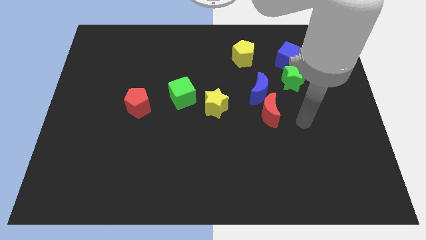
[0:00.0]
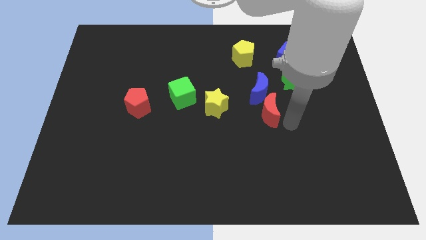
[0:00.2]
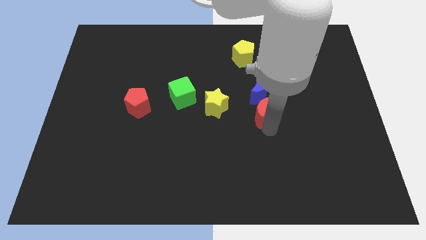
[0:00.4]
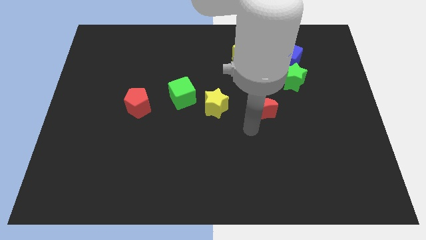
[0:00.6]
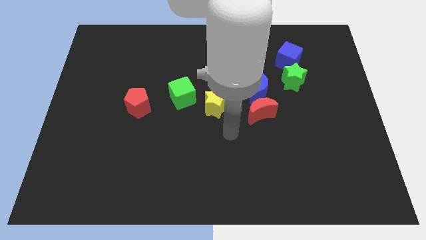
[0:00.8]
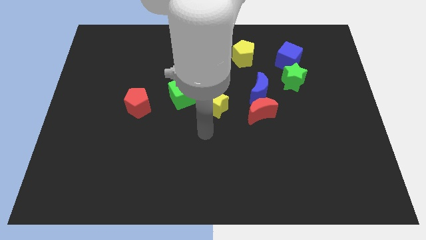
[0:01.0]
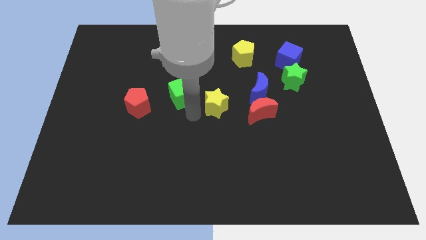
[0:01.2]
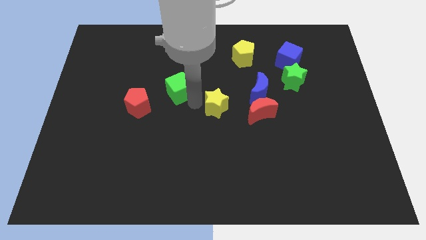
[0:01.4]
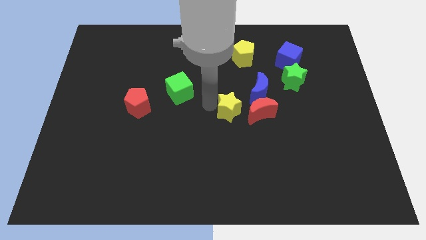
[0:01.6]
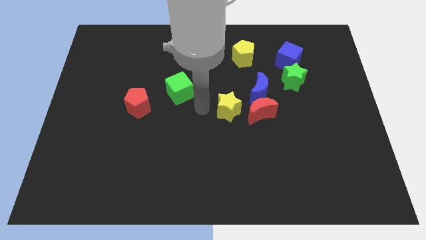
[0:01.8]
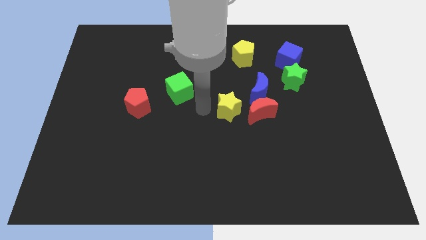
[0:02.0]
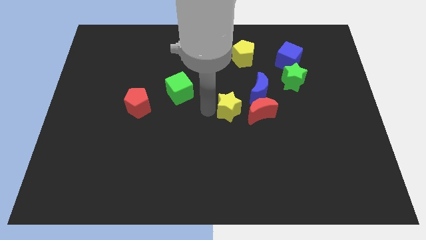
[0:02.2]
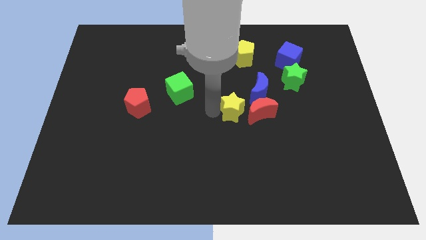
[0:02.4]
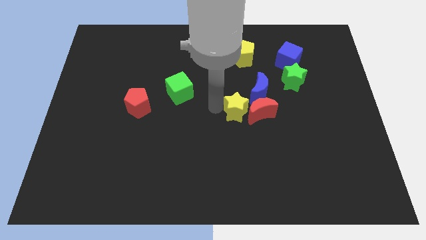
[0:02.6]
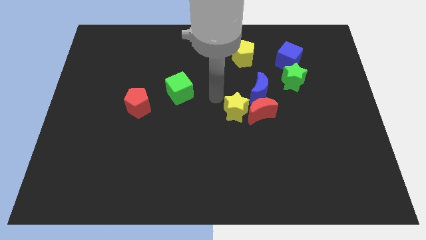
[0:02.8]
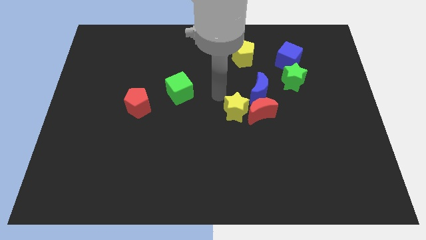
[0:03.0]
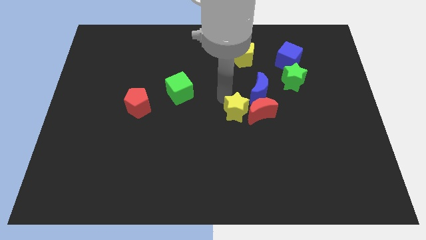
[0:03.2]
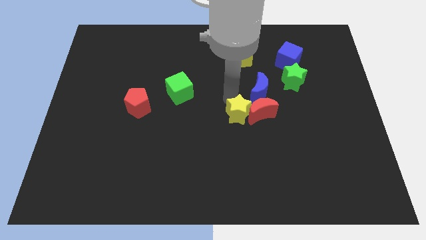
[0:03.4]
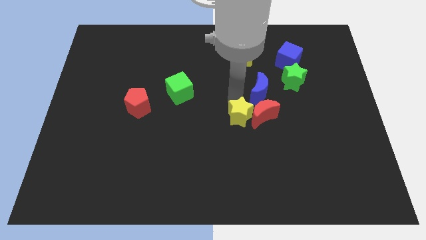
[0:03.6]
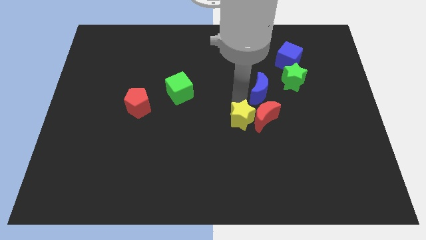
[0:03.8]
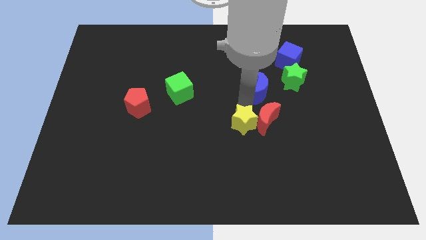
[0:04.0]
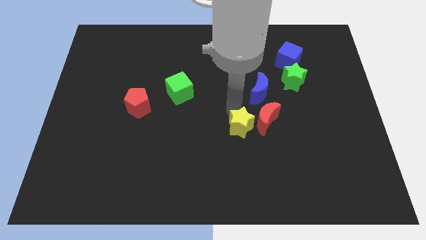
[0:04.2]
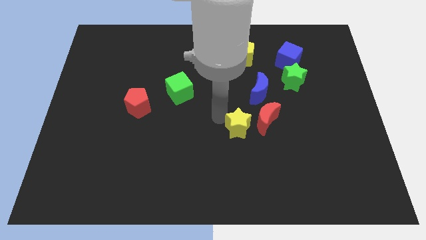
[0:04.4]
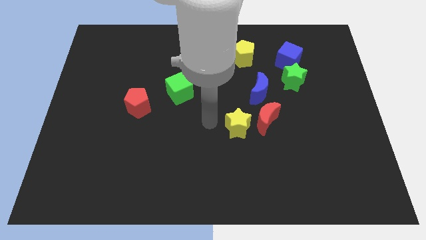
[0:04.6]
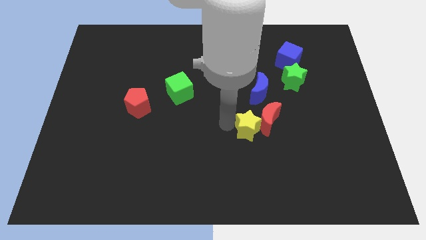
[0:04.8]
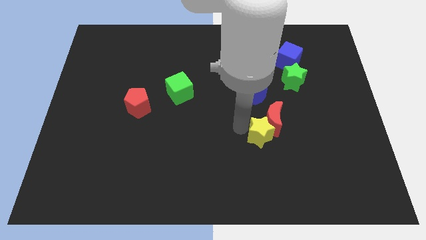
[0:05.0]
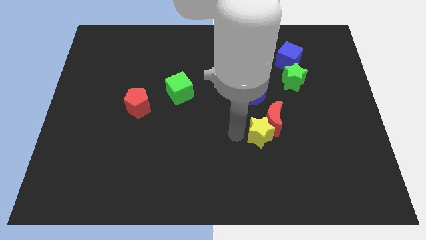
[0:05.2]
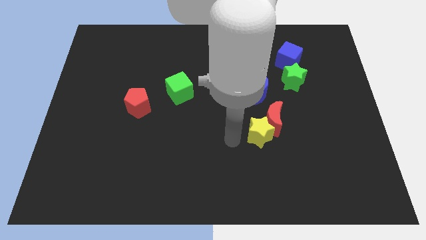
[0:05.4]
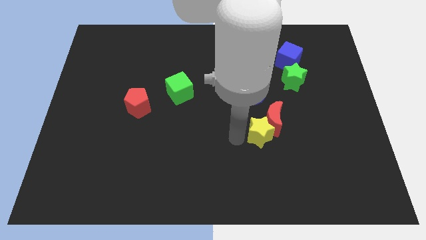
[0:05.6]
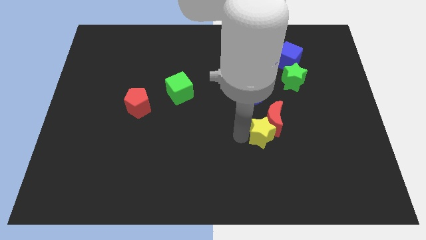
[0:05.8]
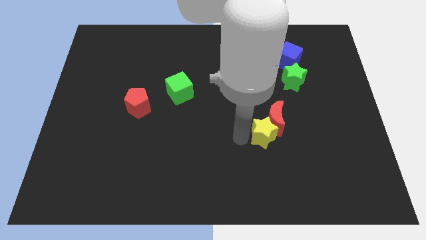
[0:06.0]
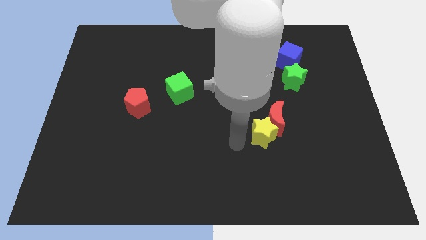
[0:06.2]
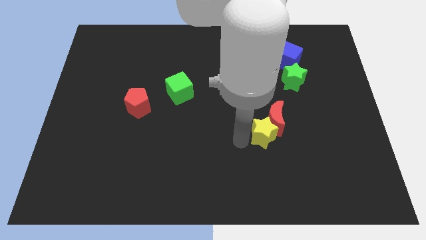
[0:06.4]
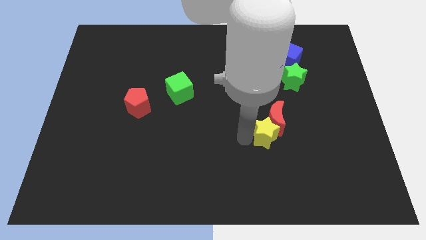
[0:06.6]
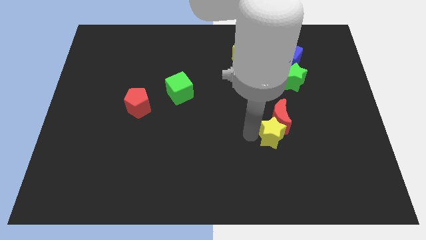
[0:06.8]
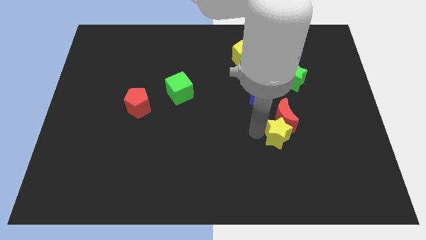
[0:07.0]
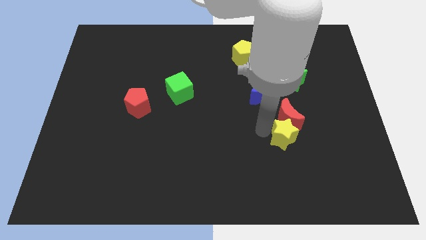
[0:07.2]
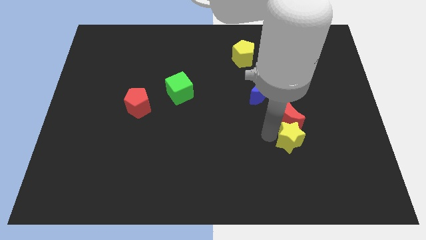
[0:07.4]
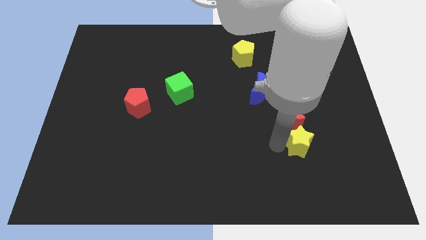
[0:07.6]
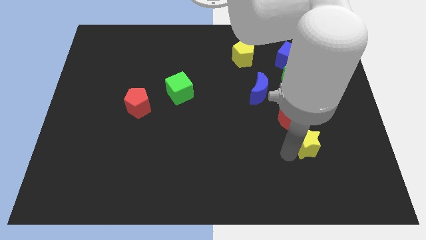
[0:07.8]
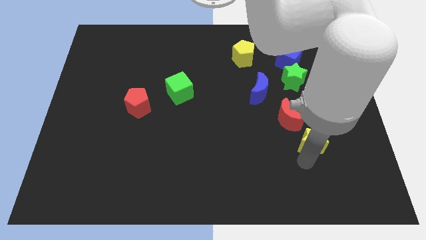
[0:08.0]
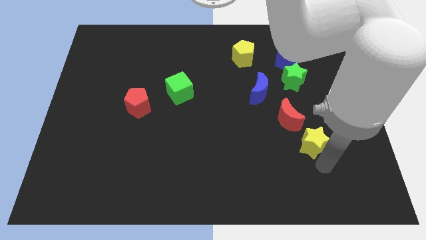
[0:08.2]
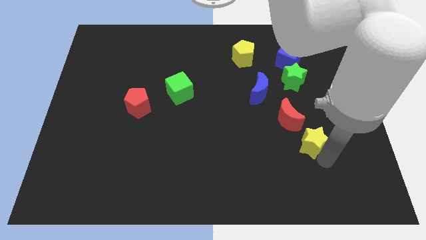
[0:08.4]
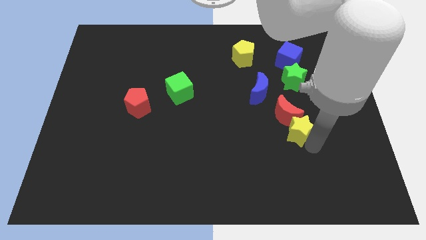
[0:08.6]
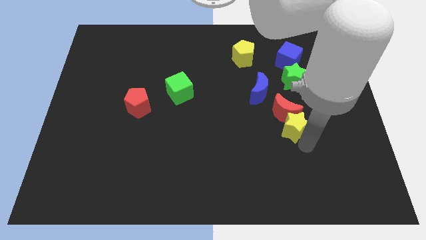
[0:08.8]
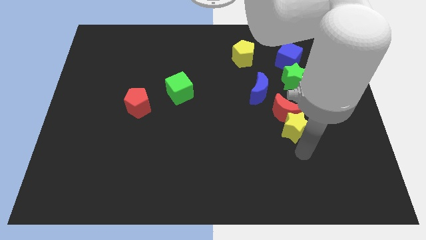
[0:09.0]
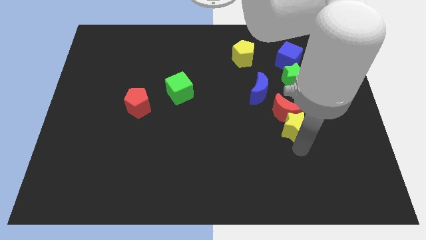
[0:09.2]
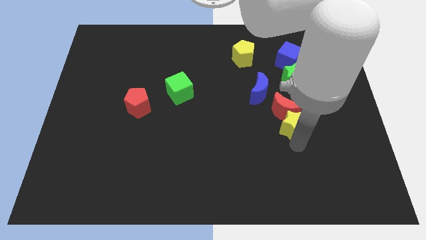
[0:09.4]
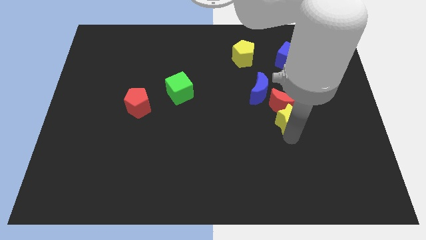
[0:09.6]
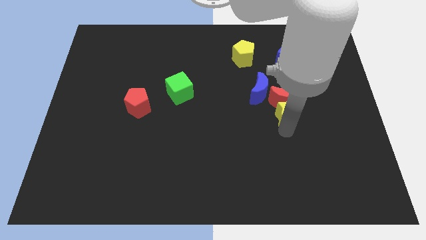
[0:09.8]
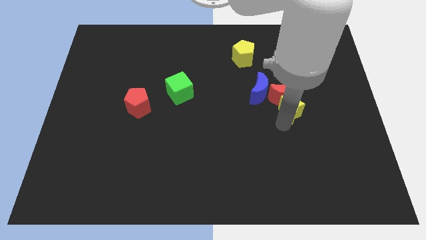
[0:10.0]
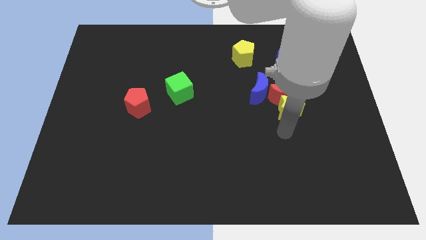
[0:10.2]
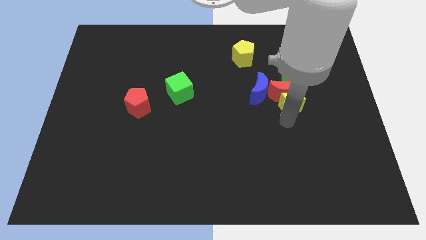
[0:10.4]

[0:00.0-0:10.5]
slide the yellow star to the bottom of the blue cube

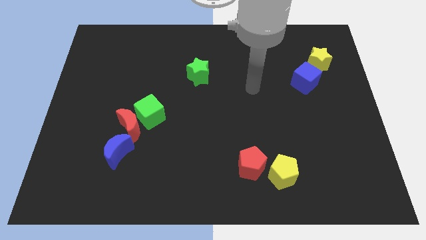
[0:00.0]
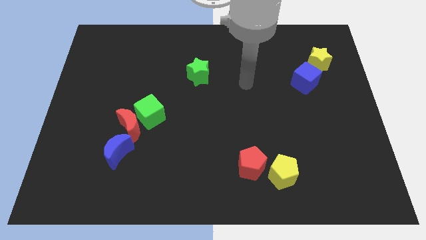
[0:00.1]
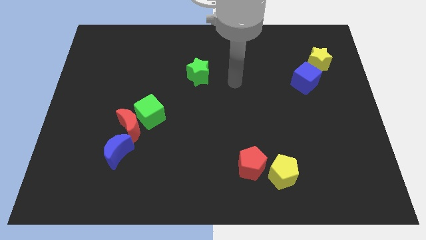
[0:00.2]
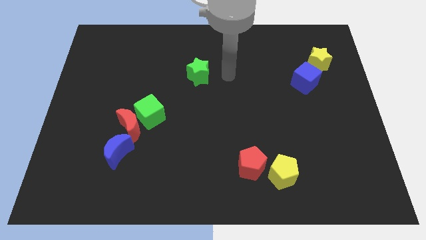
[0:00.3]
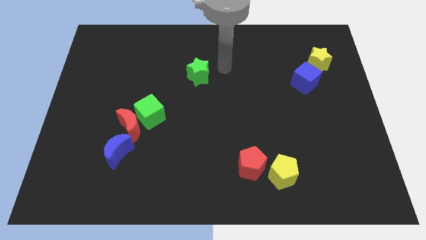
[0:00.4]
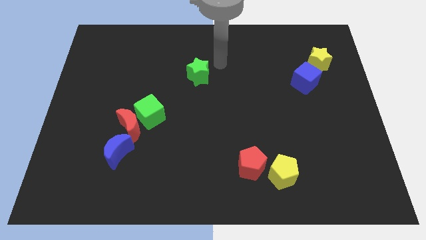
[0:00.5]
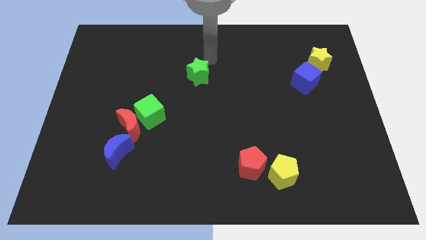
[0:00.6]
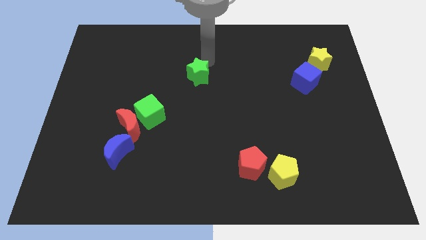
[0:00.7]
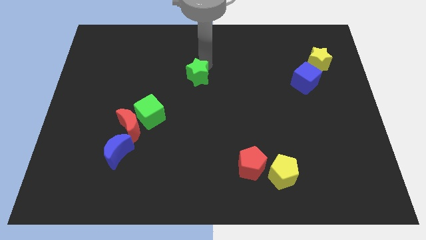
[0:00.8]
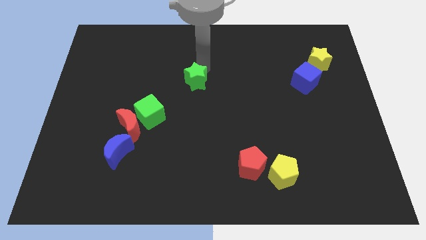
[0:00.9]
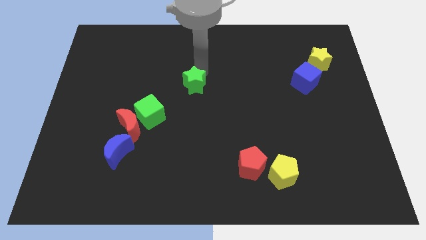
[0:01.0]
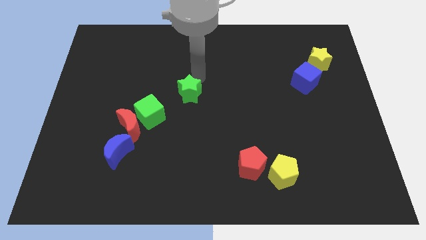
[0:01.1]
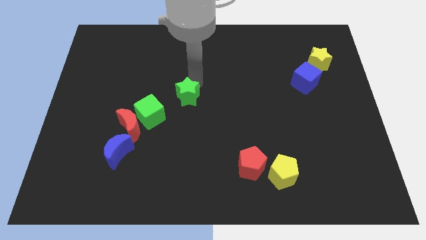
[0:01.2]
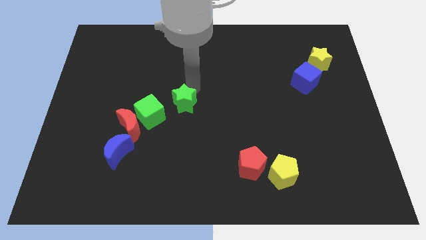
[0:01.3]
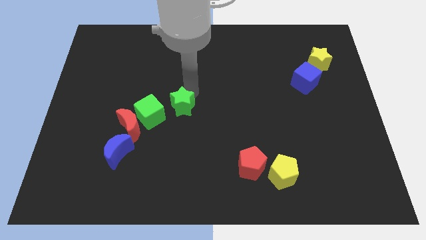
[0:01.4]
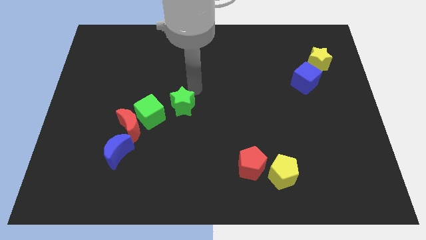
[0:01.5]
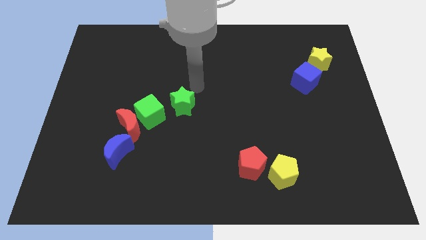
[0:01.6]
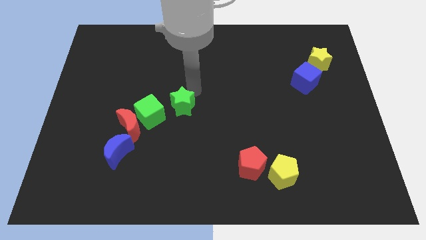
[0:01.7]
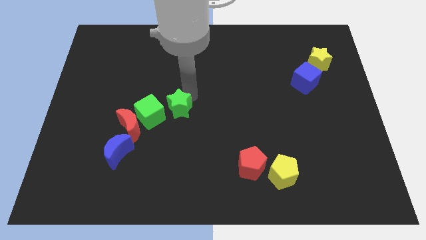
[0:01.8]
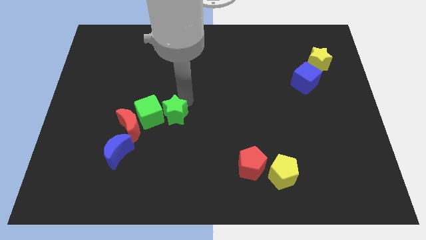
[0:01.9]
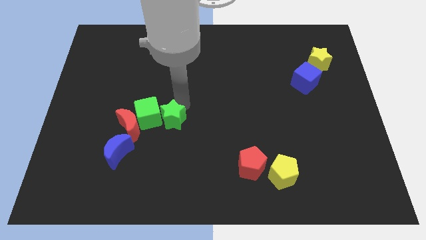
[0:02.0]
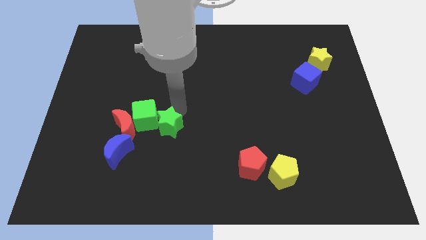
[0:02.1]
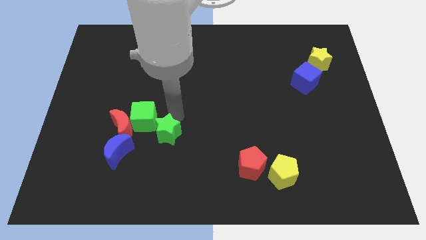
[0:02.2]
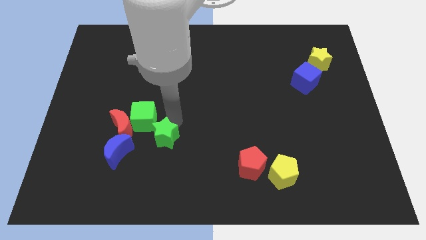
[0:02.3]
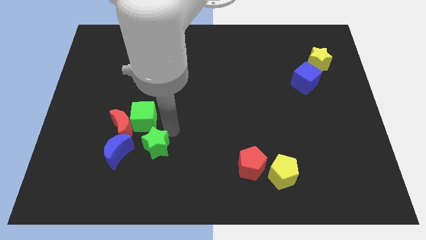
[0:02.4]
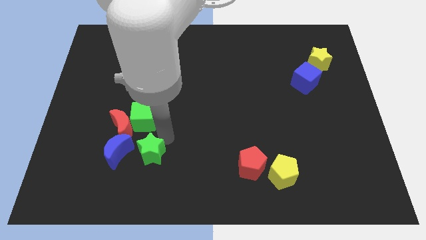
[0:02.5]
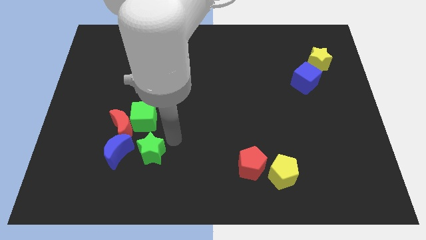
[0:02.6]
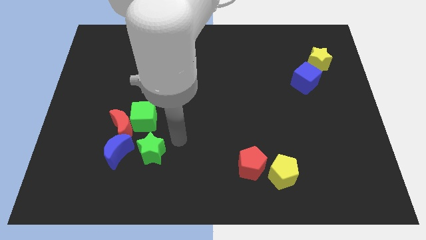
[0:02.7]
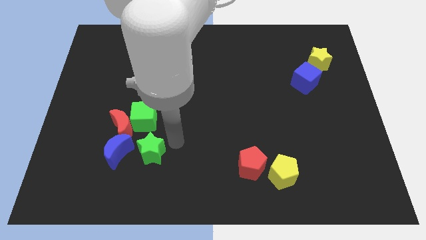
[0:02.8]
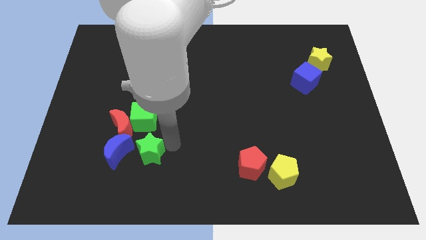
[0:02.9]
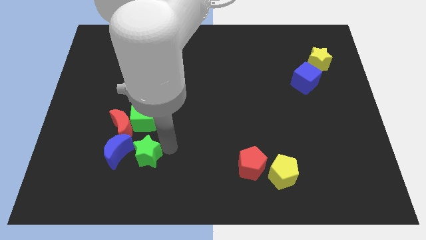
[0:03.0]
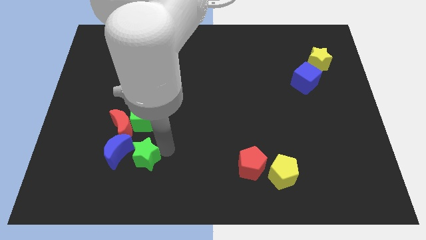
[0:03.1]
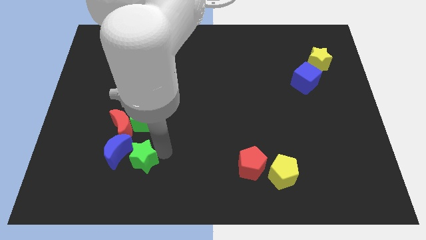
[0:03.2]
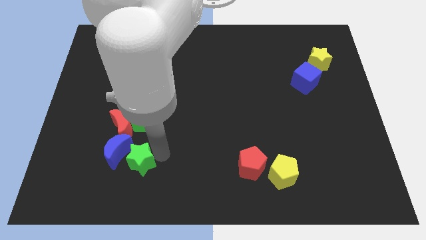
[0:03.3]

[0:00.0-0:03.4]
push the green star below the red moon
